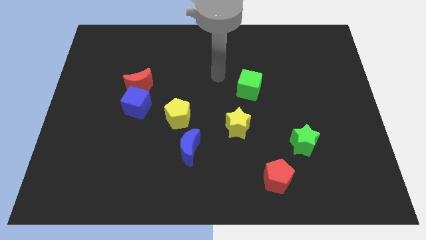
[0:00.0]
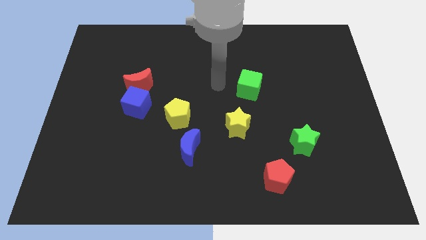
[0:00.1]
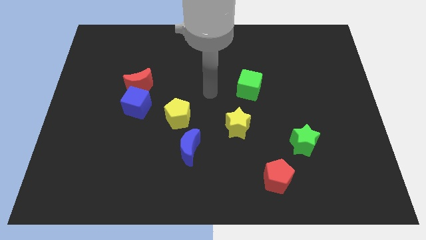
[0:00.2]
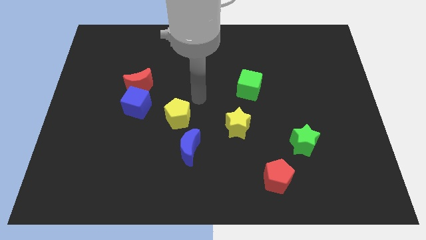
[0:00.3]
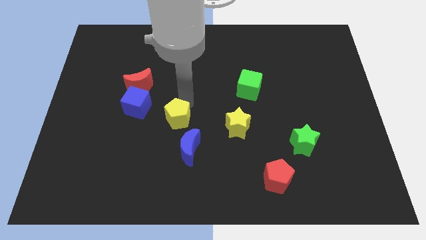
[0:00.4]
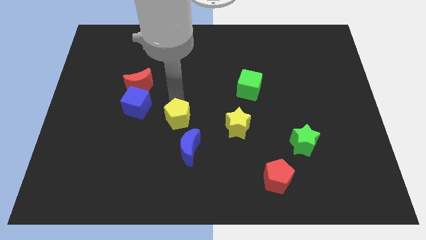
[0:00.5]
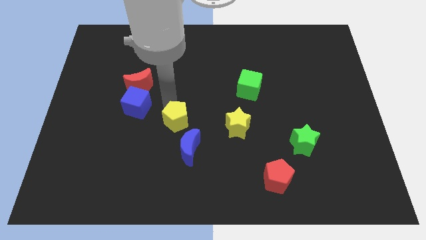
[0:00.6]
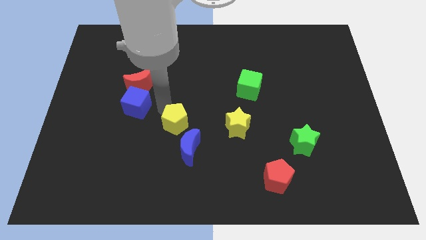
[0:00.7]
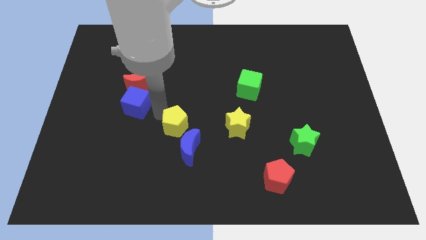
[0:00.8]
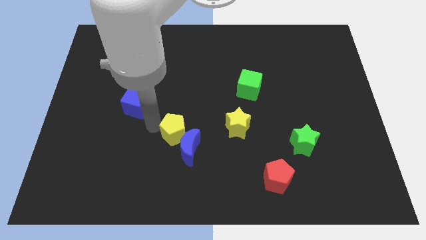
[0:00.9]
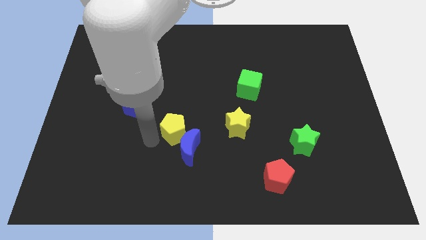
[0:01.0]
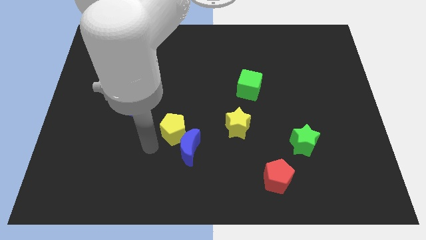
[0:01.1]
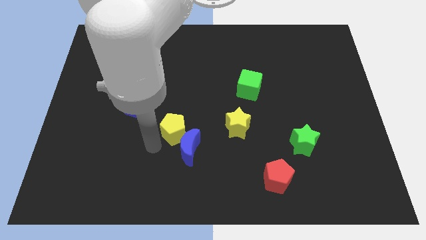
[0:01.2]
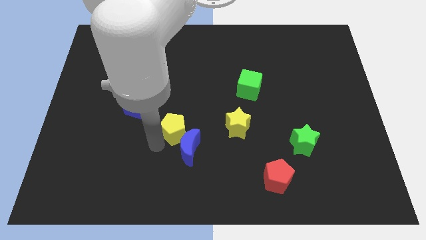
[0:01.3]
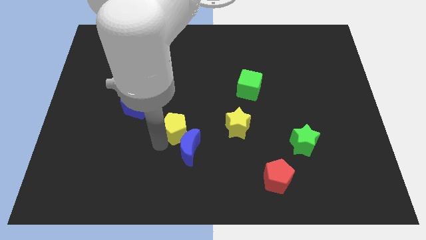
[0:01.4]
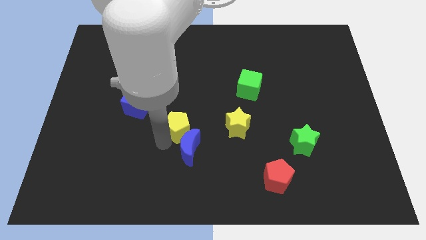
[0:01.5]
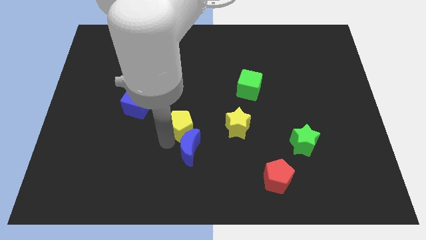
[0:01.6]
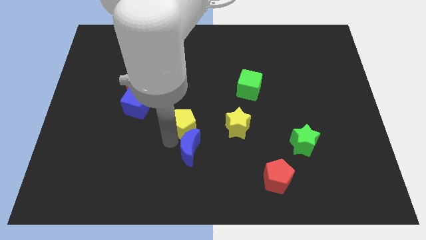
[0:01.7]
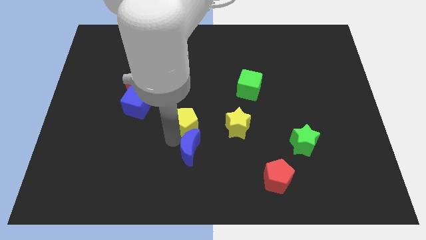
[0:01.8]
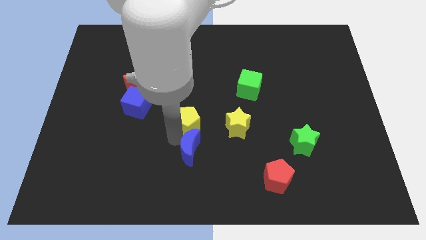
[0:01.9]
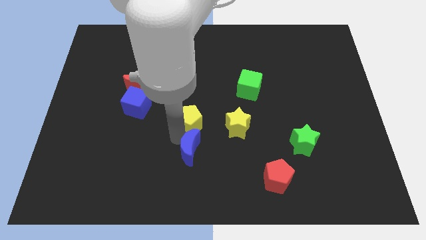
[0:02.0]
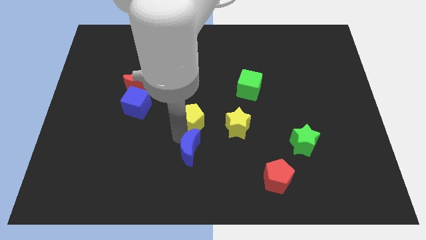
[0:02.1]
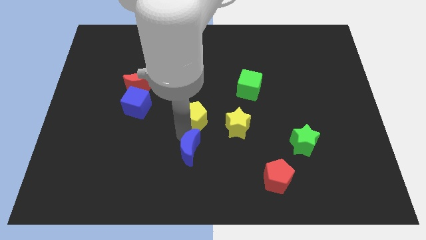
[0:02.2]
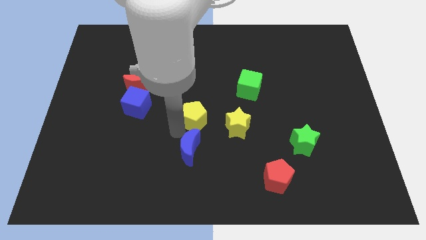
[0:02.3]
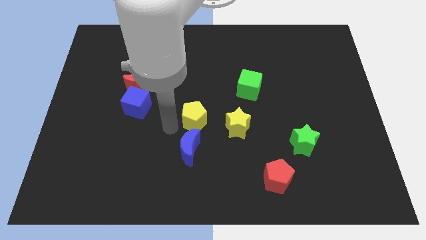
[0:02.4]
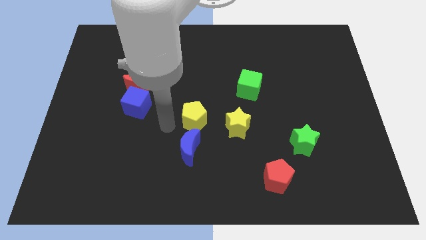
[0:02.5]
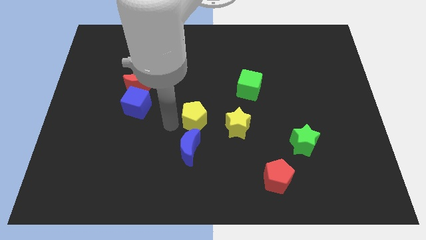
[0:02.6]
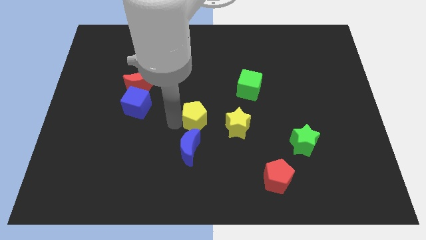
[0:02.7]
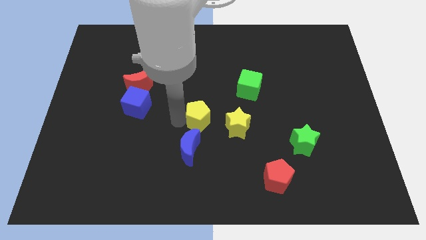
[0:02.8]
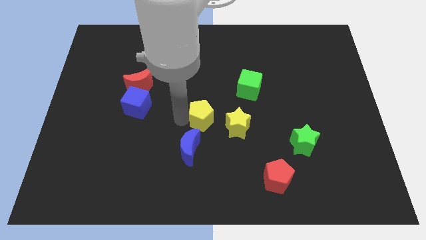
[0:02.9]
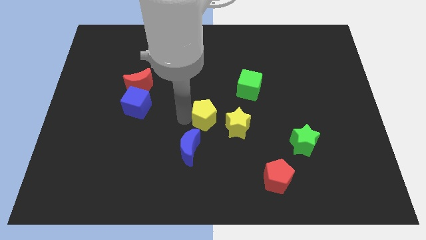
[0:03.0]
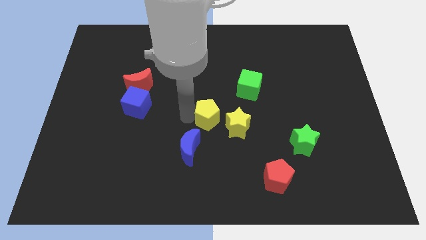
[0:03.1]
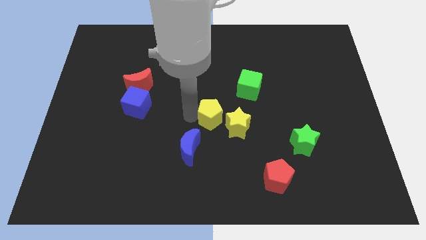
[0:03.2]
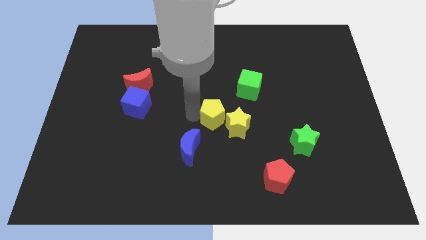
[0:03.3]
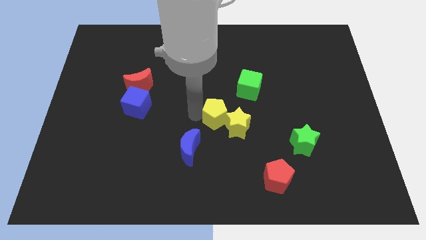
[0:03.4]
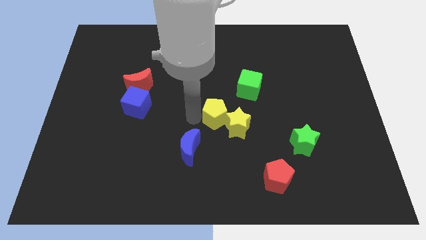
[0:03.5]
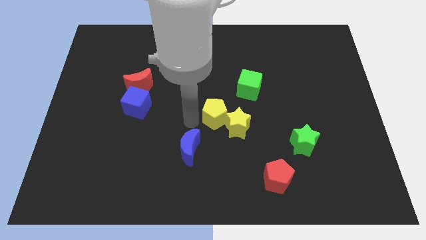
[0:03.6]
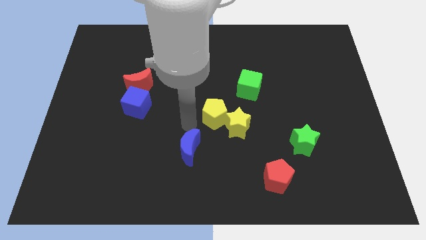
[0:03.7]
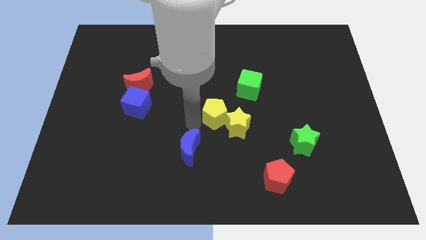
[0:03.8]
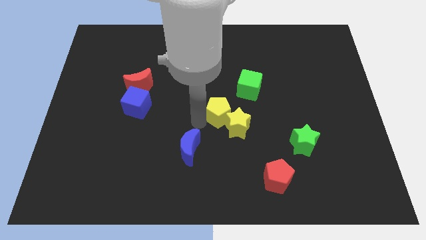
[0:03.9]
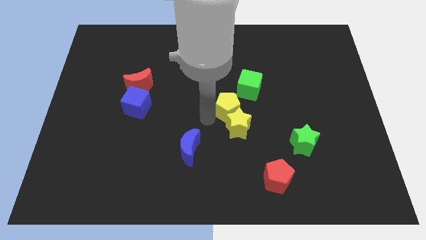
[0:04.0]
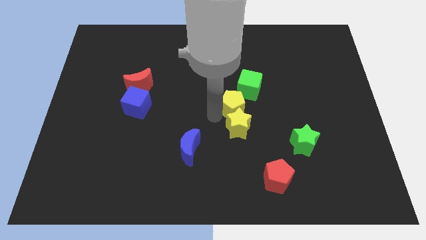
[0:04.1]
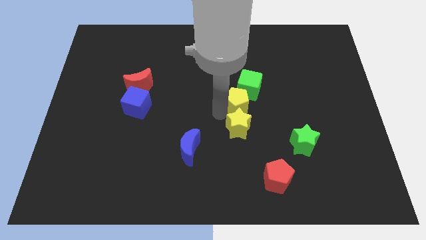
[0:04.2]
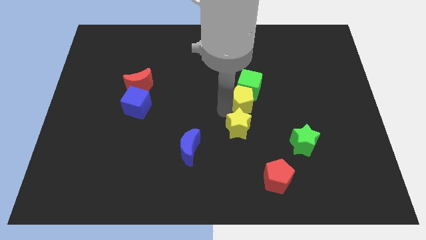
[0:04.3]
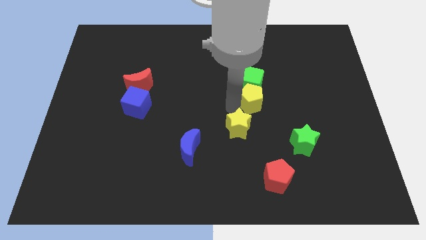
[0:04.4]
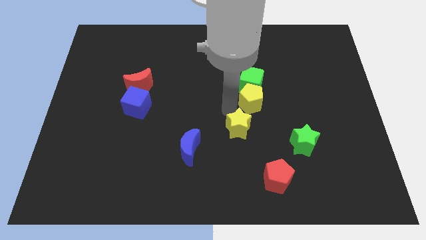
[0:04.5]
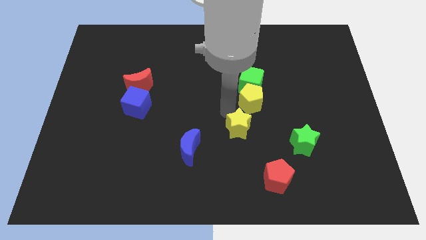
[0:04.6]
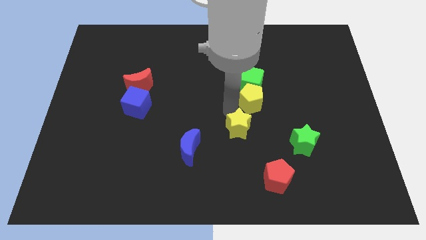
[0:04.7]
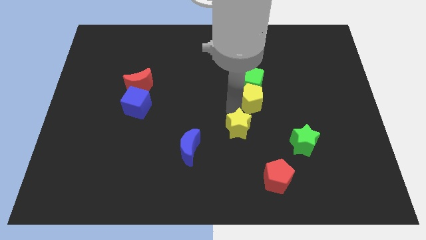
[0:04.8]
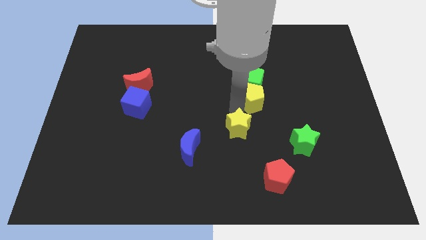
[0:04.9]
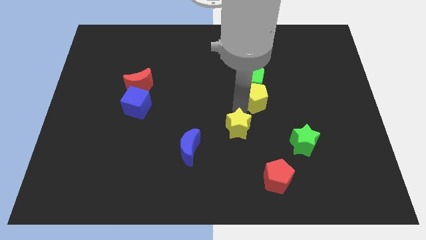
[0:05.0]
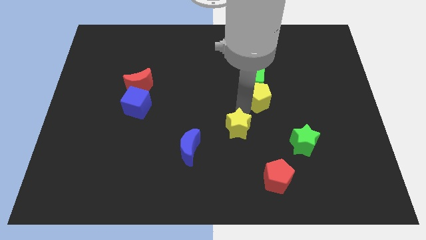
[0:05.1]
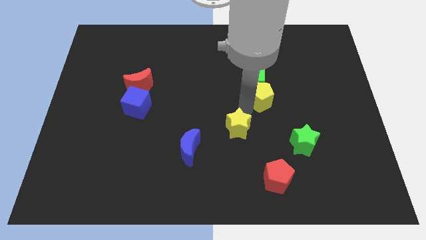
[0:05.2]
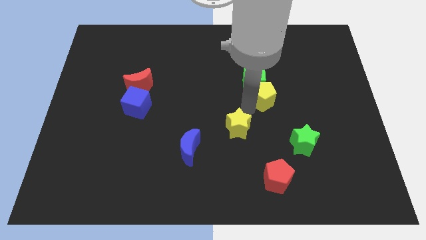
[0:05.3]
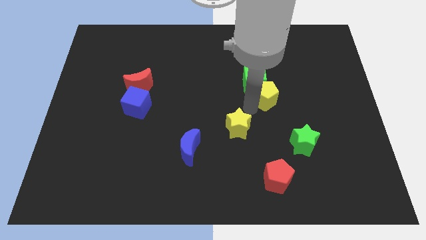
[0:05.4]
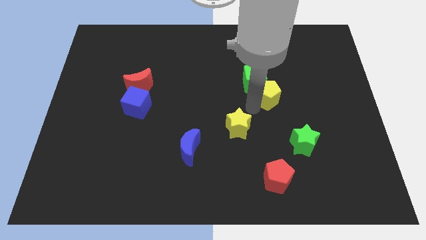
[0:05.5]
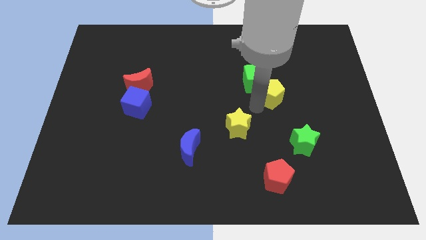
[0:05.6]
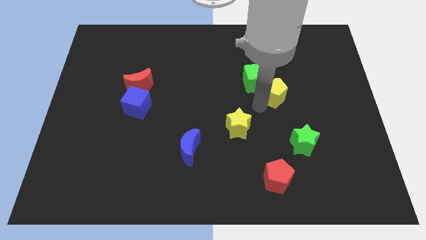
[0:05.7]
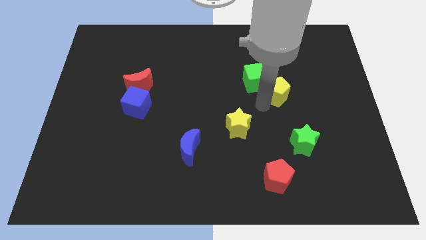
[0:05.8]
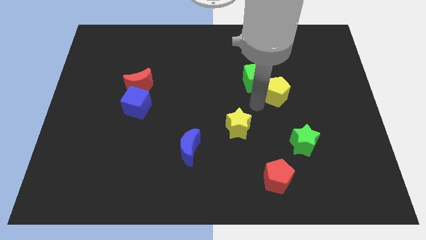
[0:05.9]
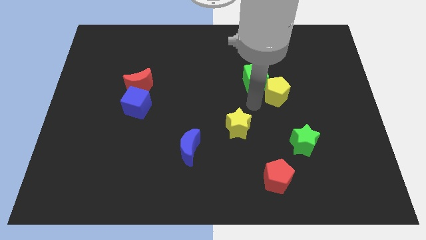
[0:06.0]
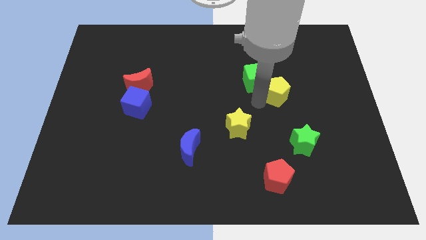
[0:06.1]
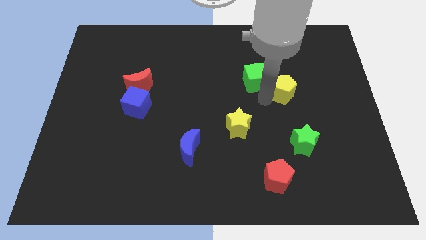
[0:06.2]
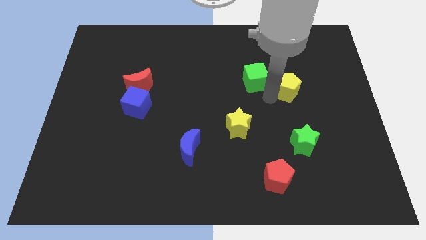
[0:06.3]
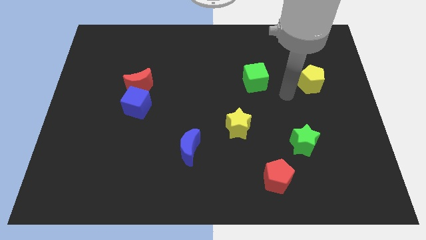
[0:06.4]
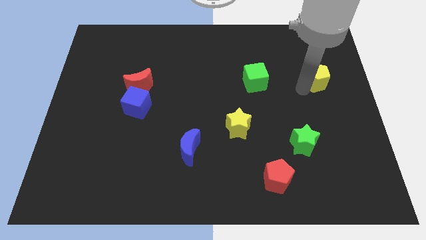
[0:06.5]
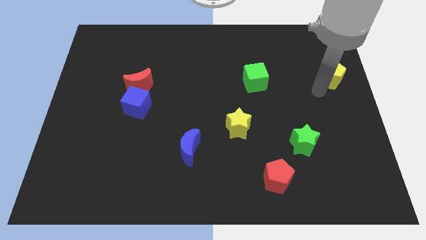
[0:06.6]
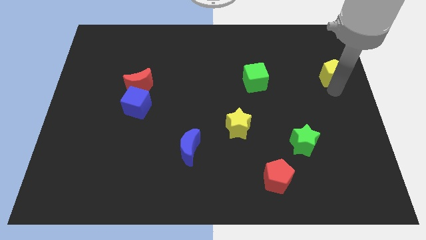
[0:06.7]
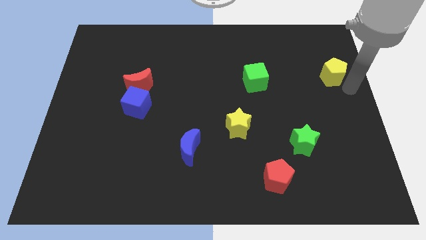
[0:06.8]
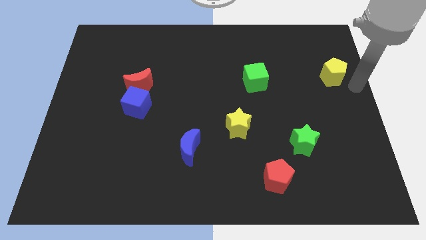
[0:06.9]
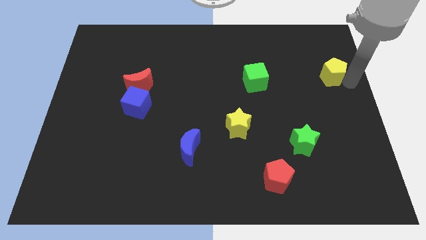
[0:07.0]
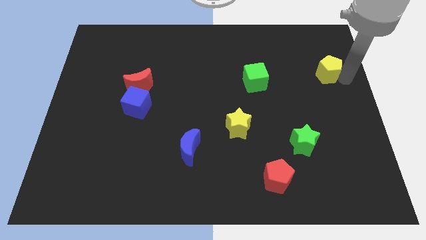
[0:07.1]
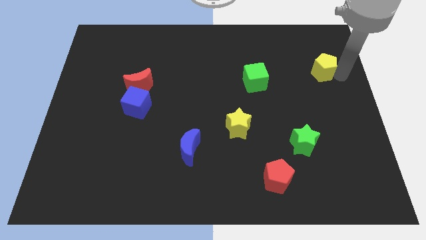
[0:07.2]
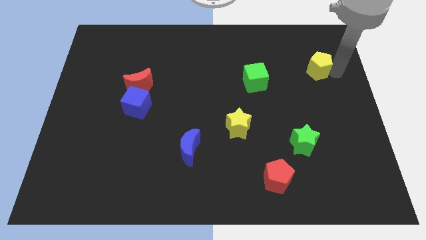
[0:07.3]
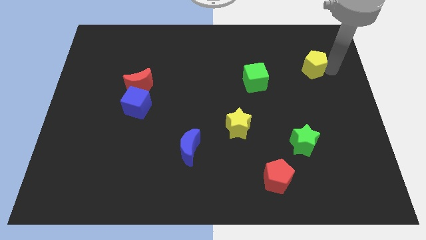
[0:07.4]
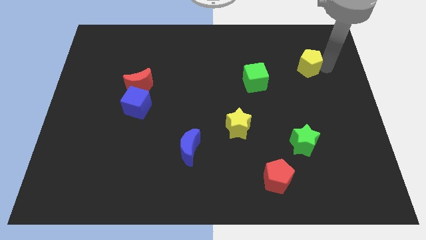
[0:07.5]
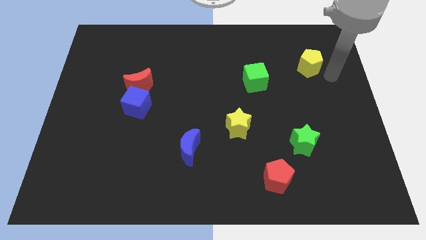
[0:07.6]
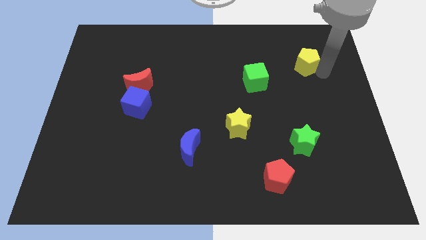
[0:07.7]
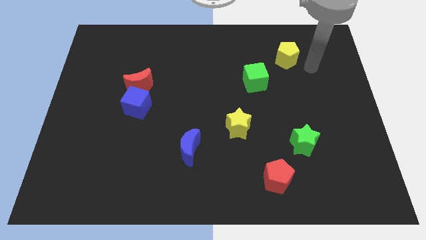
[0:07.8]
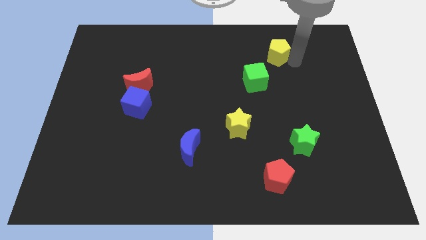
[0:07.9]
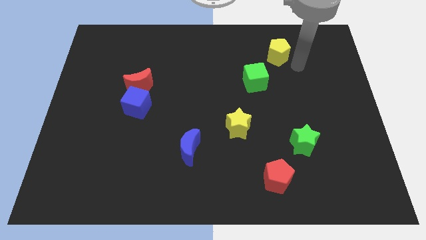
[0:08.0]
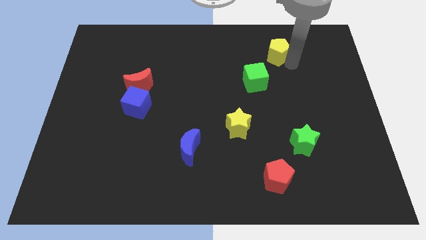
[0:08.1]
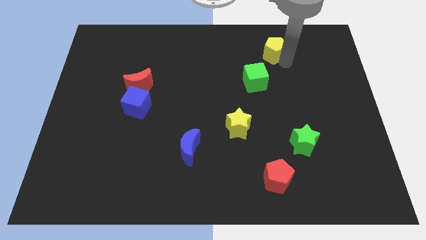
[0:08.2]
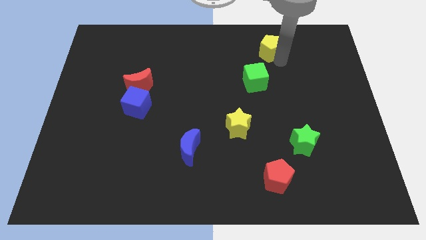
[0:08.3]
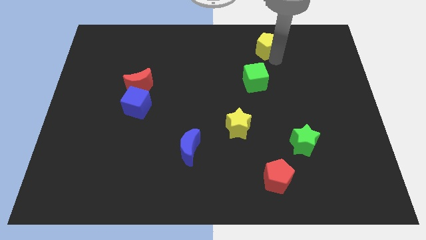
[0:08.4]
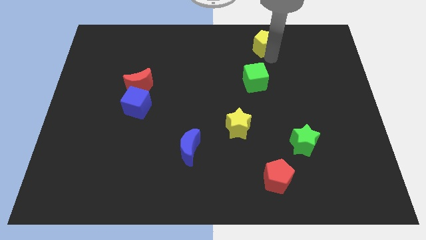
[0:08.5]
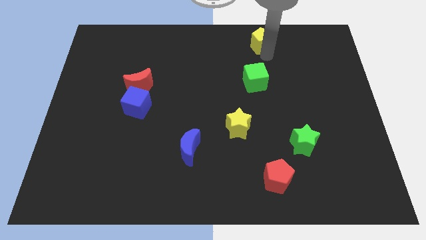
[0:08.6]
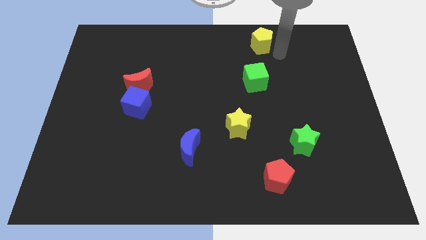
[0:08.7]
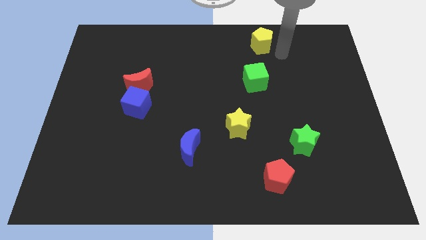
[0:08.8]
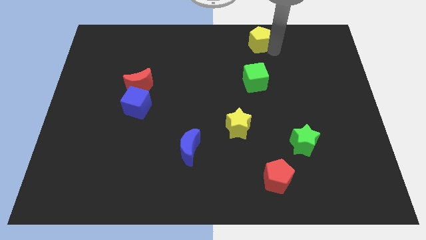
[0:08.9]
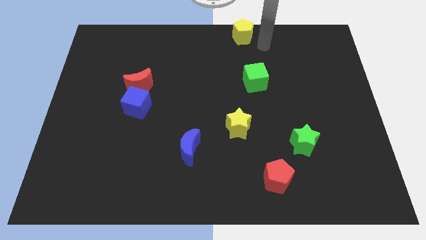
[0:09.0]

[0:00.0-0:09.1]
slide the yellow pentagon to the top side
